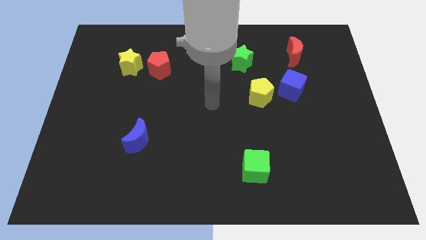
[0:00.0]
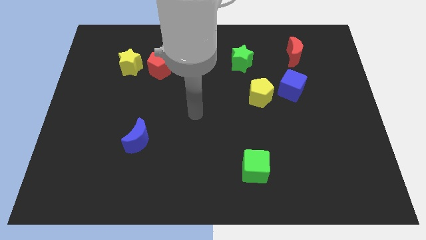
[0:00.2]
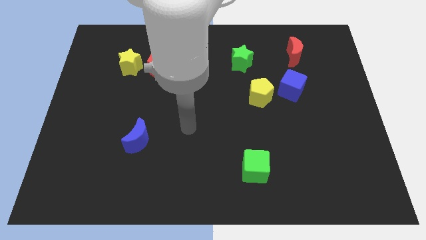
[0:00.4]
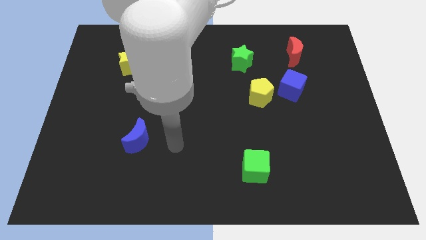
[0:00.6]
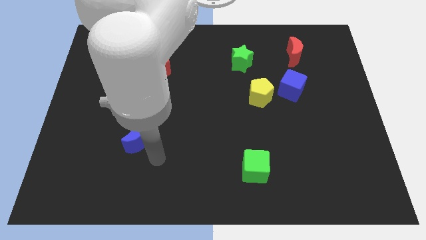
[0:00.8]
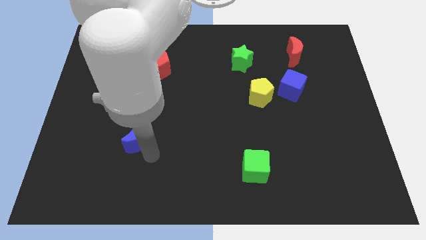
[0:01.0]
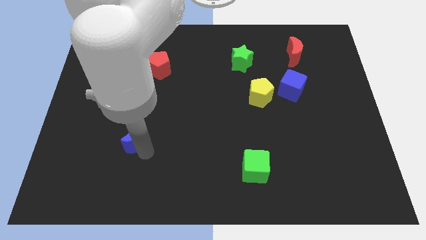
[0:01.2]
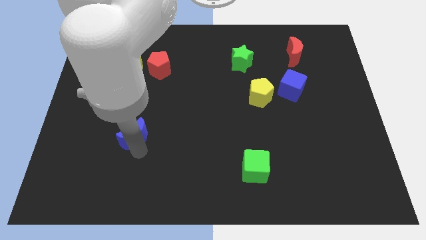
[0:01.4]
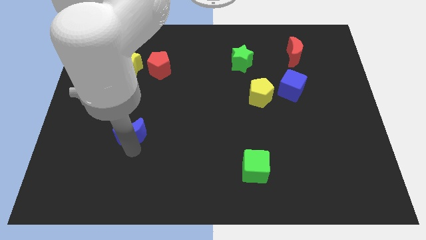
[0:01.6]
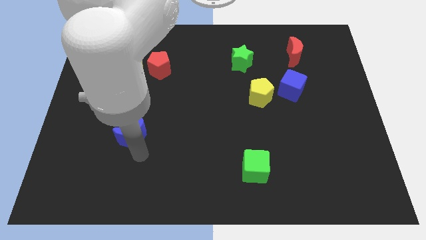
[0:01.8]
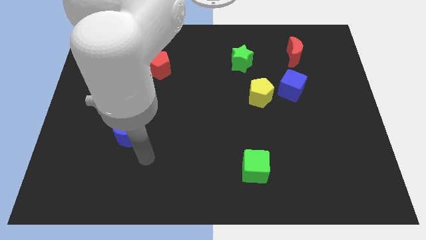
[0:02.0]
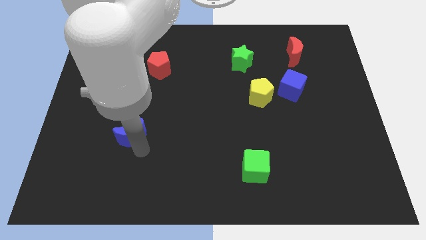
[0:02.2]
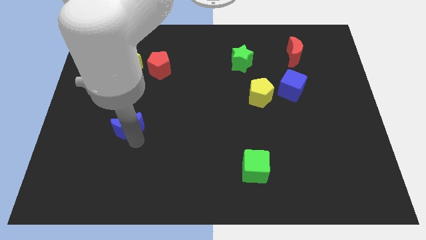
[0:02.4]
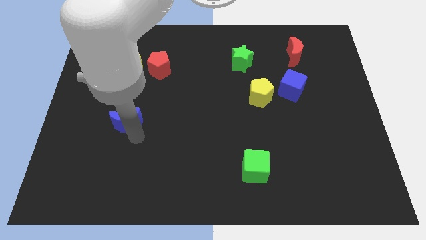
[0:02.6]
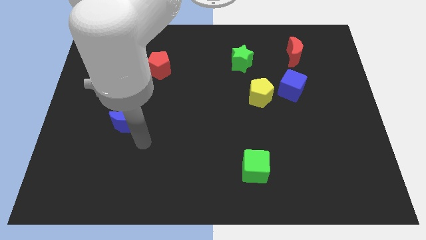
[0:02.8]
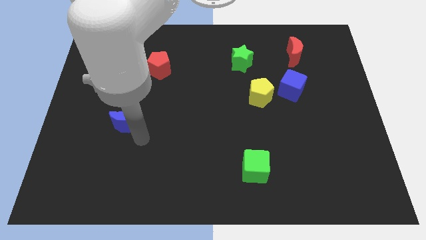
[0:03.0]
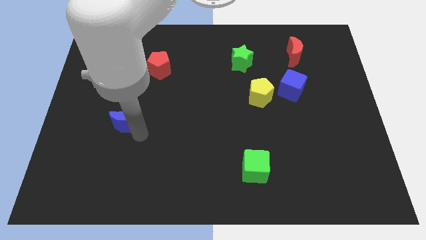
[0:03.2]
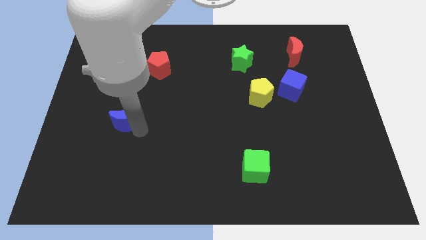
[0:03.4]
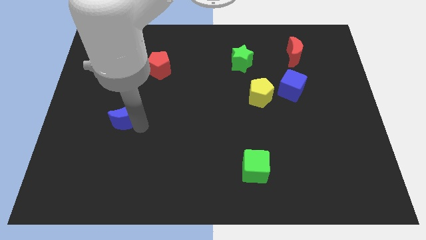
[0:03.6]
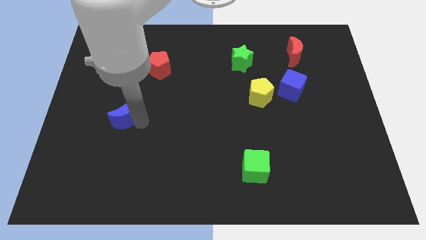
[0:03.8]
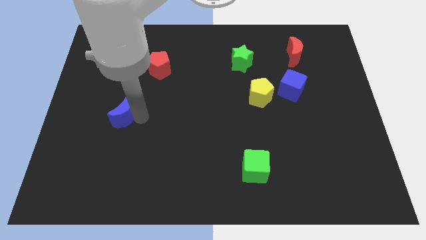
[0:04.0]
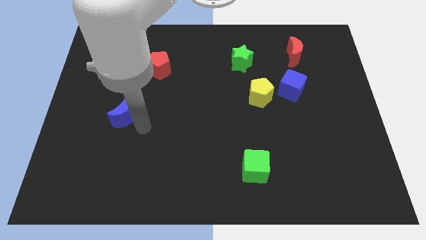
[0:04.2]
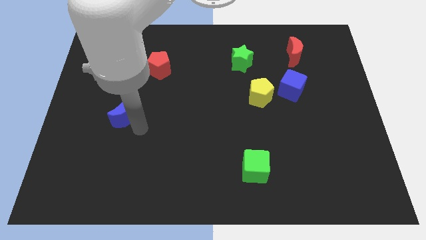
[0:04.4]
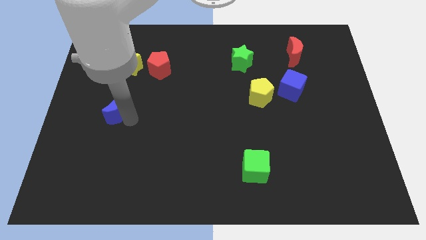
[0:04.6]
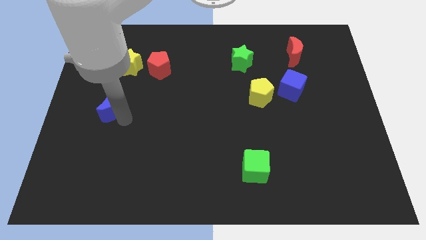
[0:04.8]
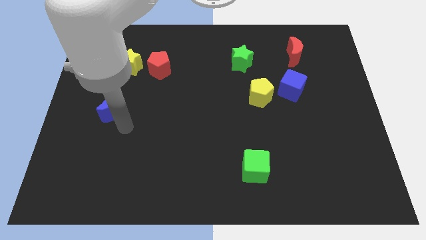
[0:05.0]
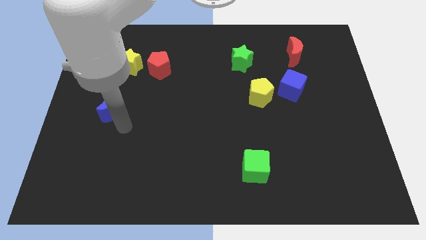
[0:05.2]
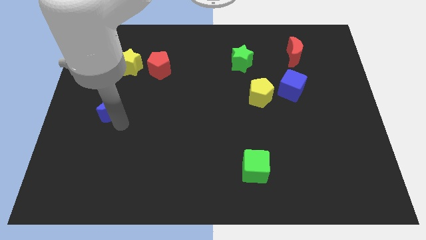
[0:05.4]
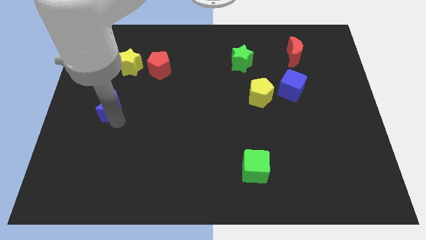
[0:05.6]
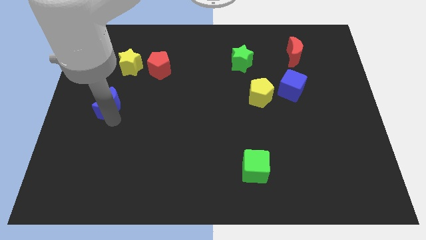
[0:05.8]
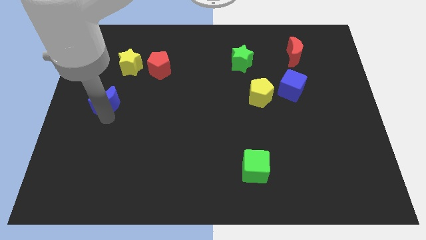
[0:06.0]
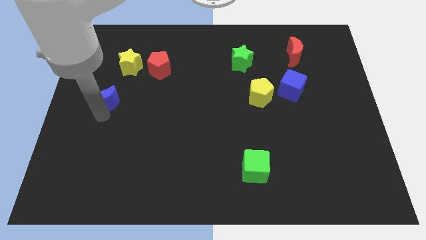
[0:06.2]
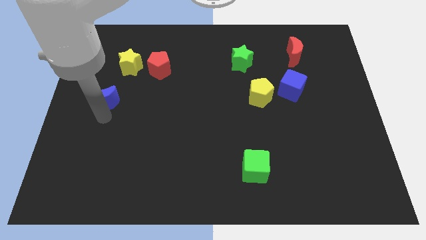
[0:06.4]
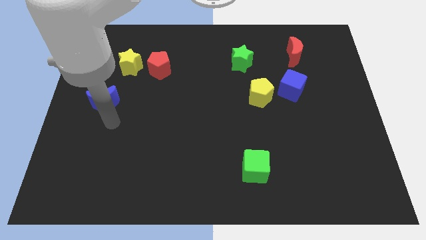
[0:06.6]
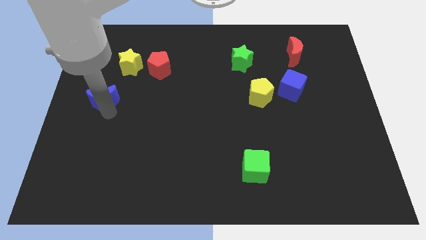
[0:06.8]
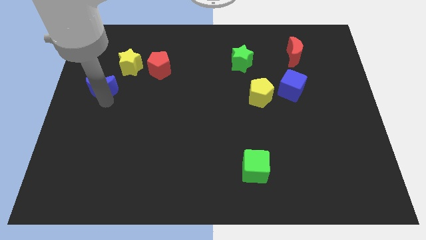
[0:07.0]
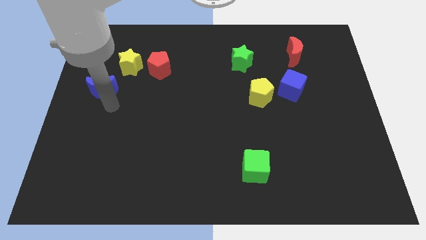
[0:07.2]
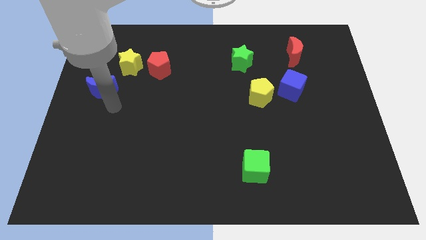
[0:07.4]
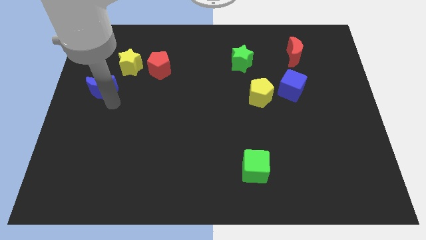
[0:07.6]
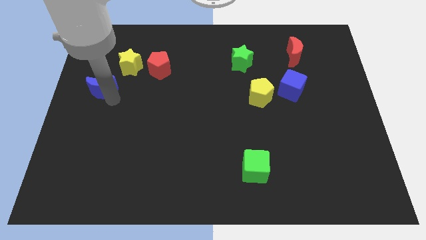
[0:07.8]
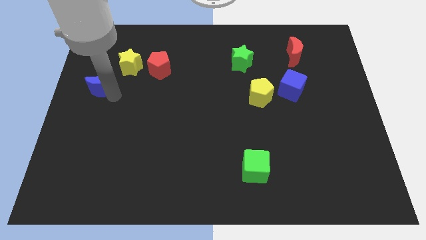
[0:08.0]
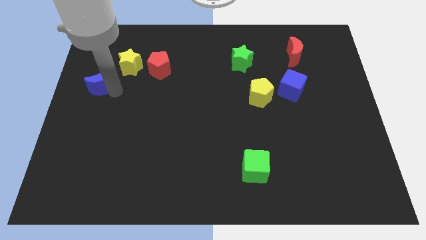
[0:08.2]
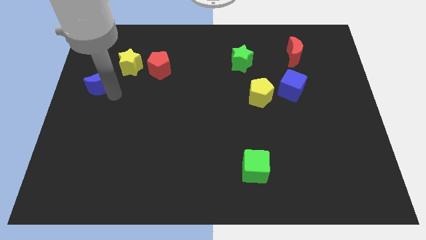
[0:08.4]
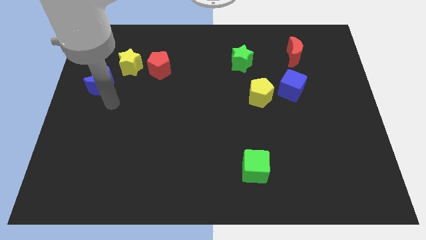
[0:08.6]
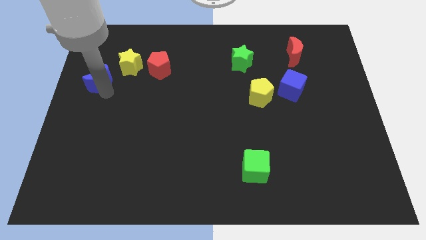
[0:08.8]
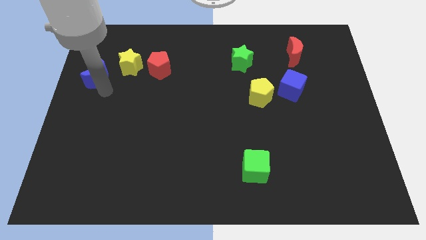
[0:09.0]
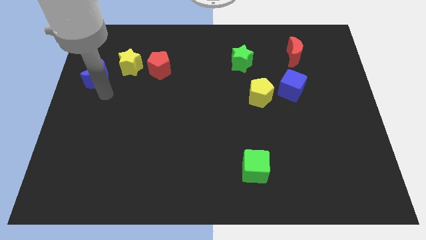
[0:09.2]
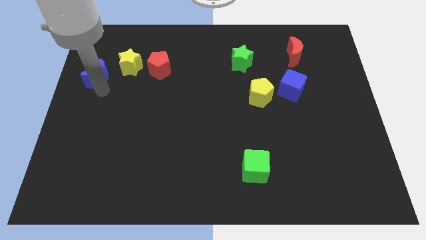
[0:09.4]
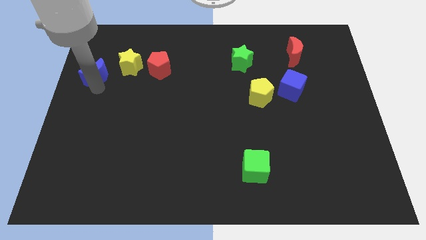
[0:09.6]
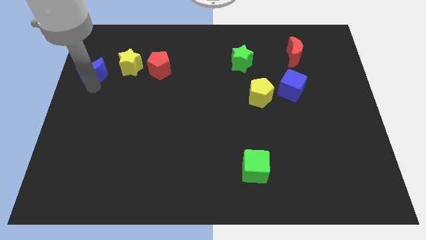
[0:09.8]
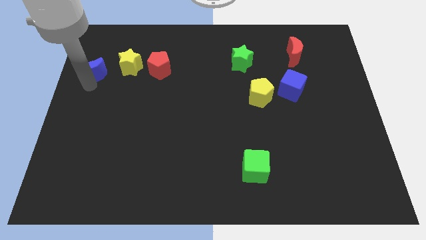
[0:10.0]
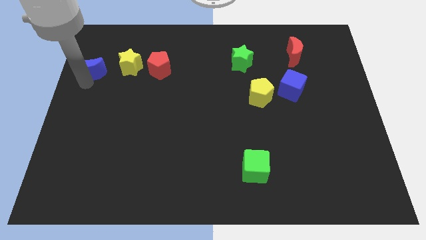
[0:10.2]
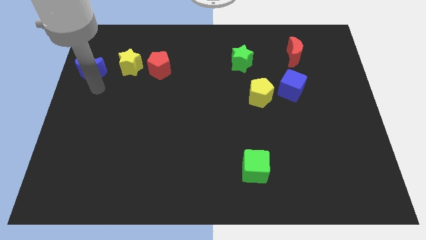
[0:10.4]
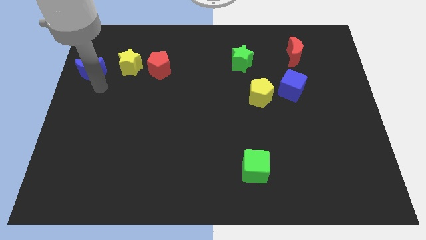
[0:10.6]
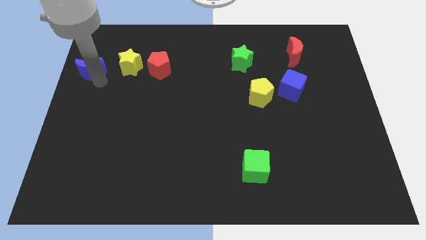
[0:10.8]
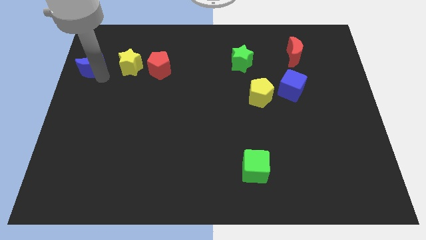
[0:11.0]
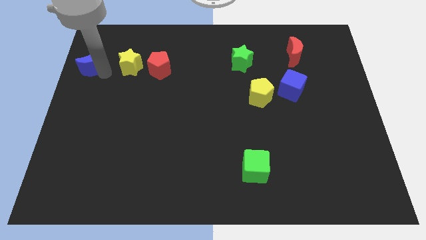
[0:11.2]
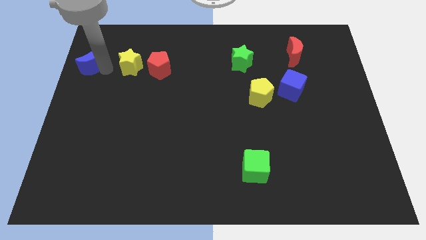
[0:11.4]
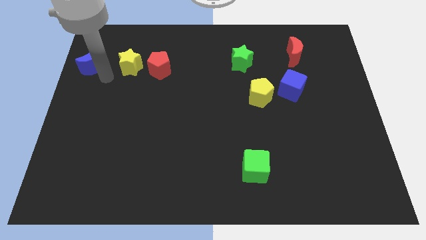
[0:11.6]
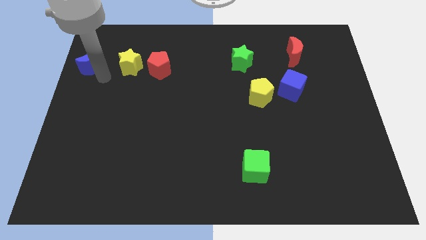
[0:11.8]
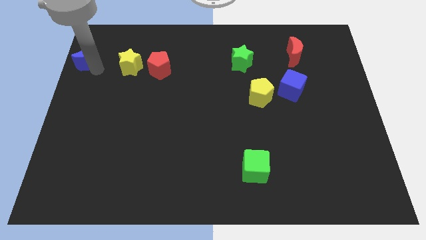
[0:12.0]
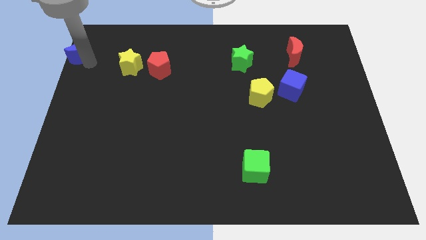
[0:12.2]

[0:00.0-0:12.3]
push the blue moon to the top left corner
